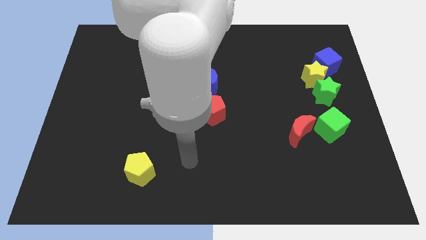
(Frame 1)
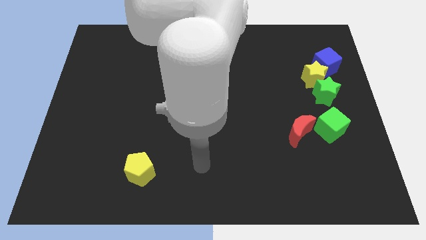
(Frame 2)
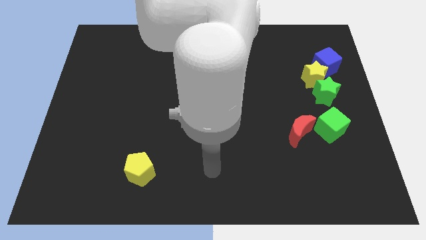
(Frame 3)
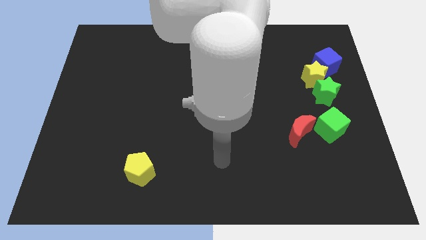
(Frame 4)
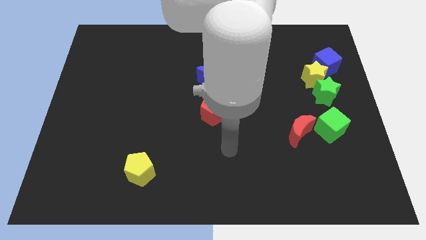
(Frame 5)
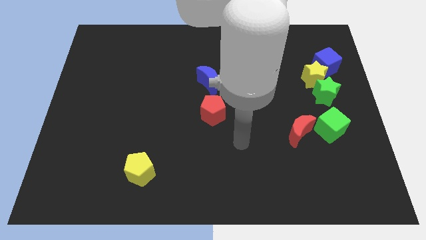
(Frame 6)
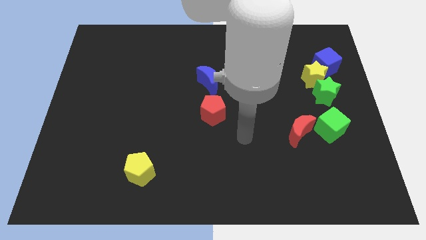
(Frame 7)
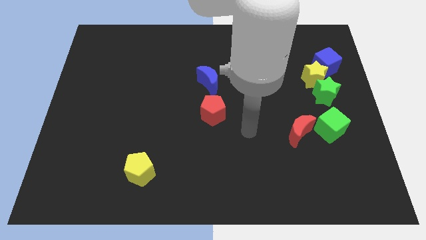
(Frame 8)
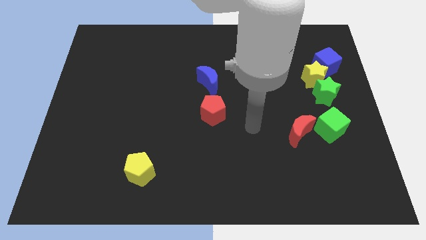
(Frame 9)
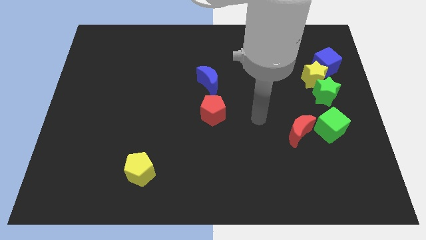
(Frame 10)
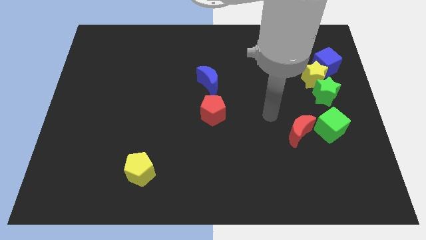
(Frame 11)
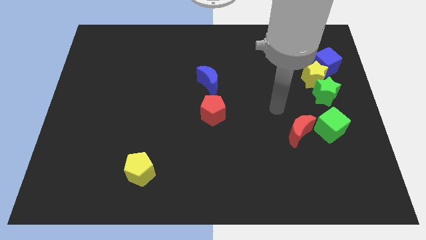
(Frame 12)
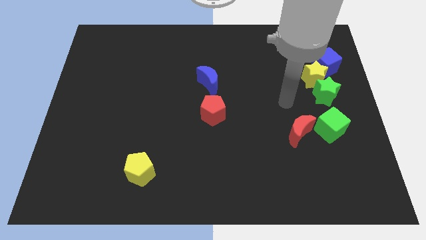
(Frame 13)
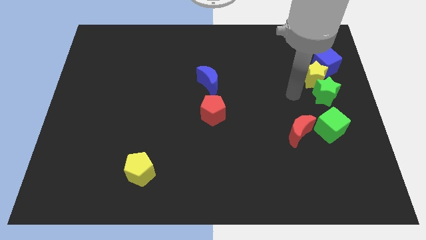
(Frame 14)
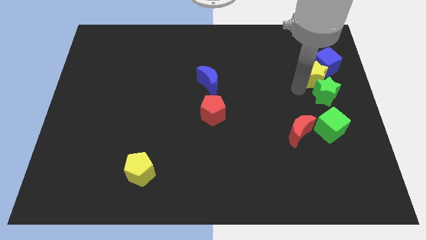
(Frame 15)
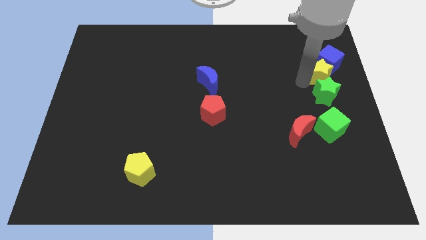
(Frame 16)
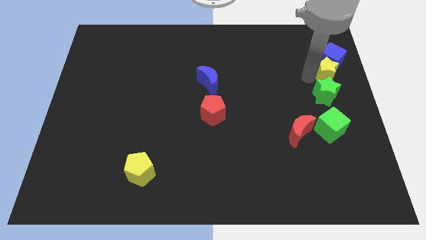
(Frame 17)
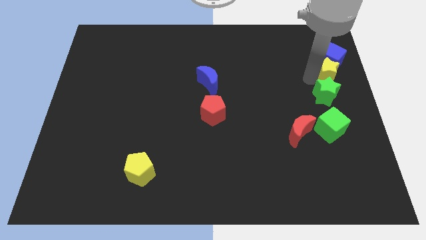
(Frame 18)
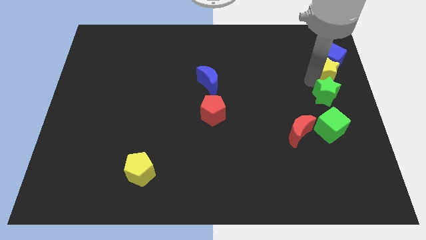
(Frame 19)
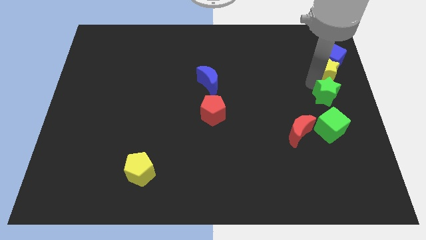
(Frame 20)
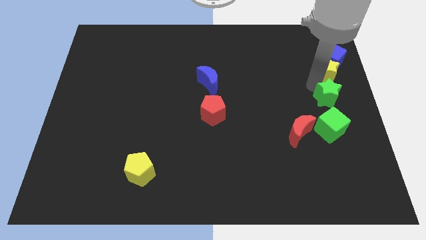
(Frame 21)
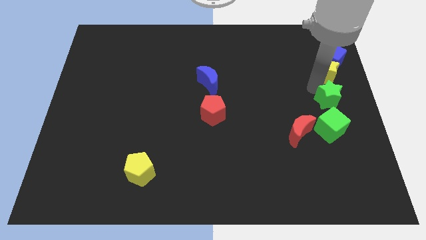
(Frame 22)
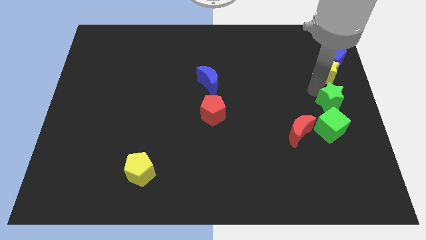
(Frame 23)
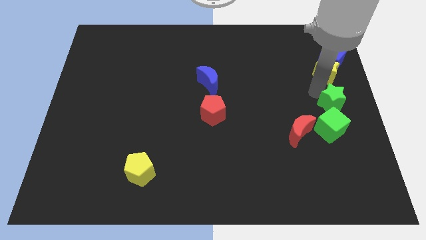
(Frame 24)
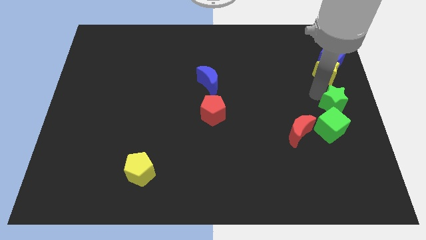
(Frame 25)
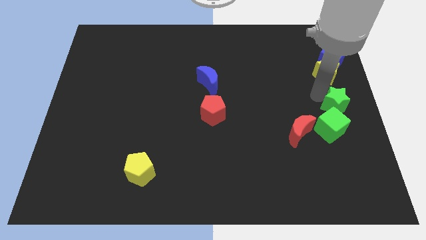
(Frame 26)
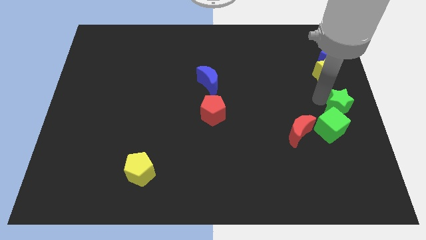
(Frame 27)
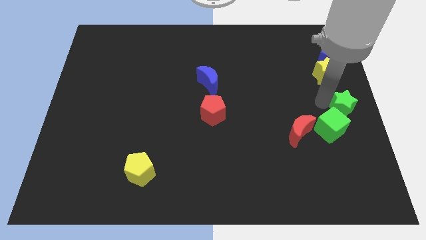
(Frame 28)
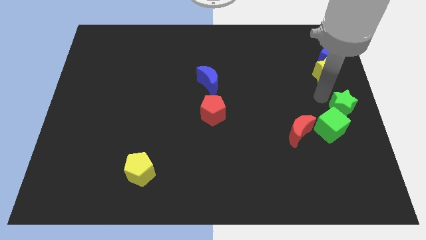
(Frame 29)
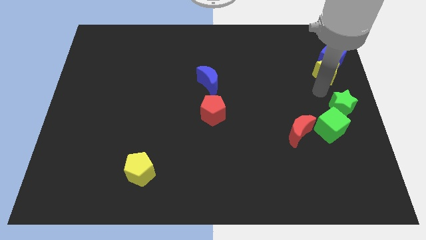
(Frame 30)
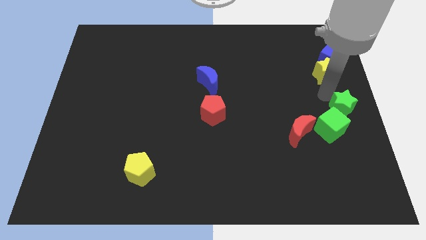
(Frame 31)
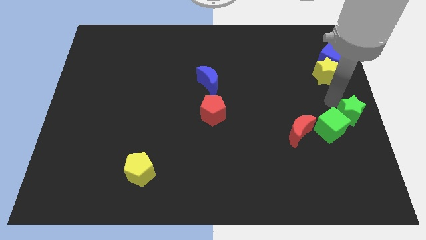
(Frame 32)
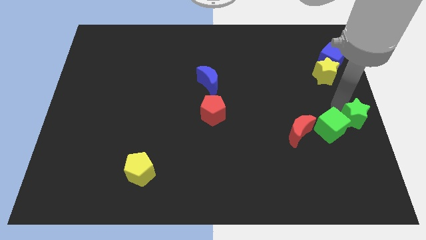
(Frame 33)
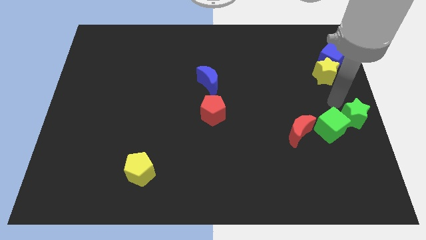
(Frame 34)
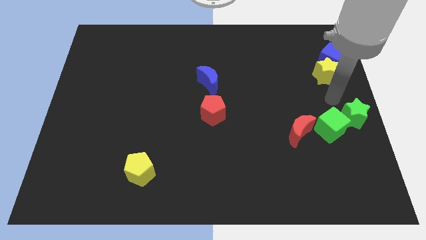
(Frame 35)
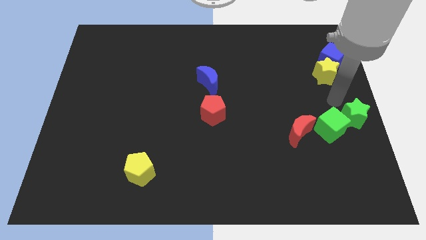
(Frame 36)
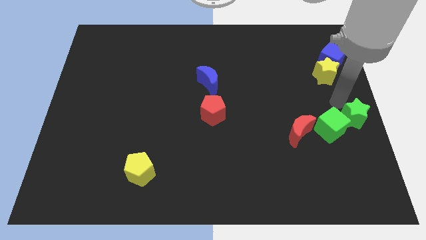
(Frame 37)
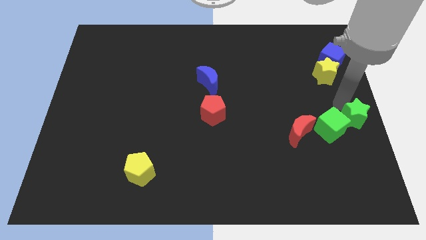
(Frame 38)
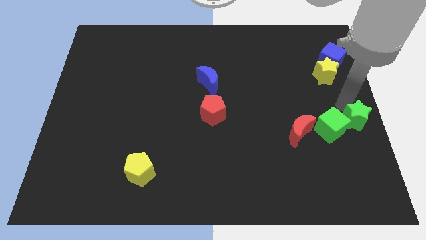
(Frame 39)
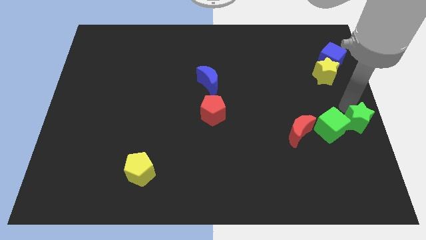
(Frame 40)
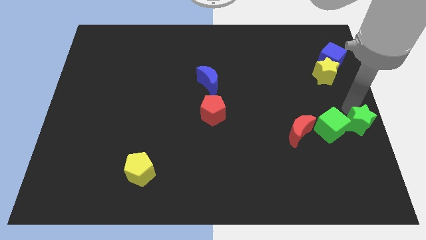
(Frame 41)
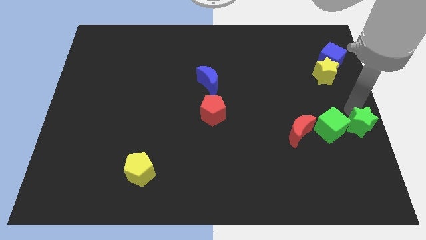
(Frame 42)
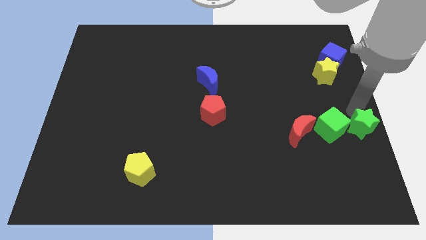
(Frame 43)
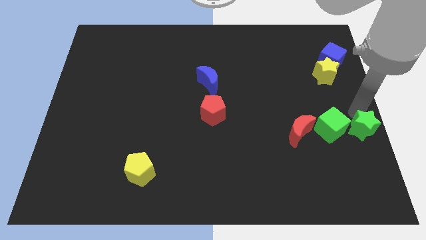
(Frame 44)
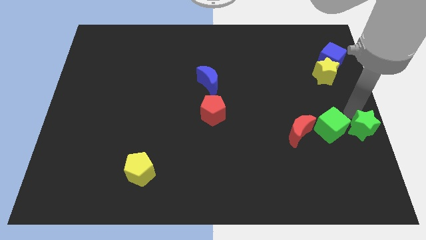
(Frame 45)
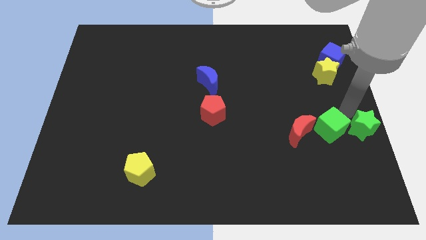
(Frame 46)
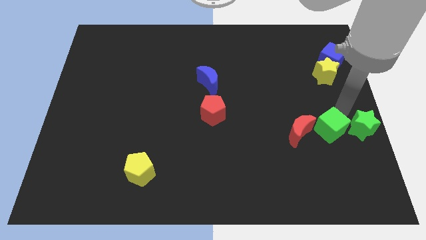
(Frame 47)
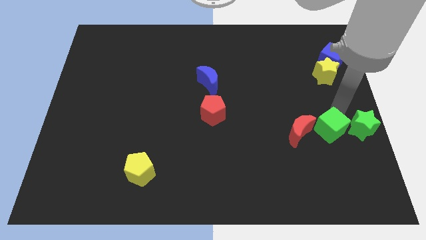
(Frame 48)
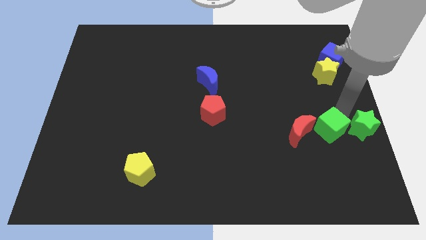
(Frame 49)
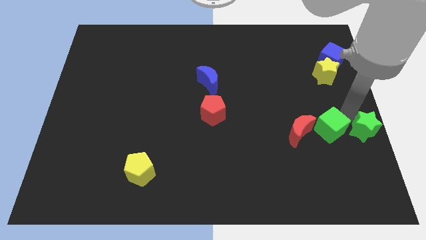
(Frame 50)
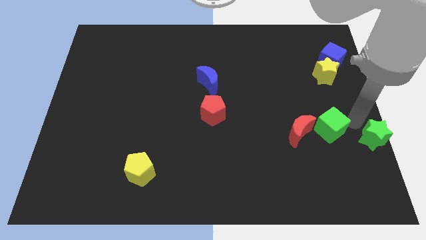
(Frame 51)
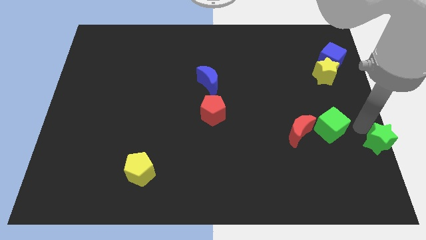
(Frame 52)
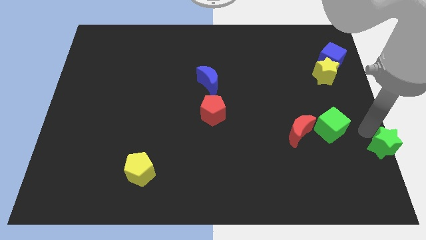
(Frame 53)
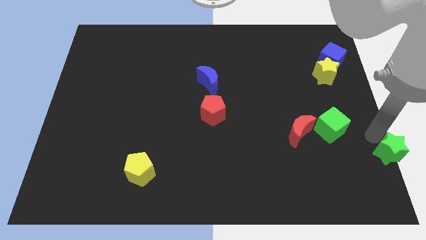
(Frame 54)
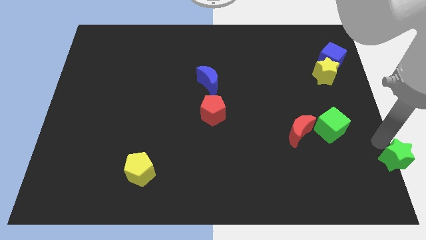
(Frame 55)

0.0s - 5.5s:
put the green star to the lower right corner
